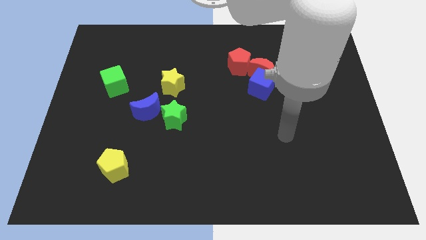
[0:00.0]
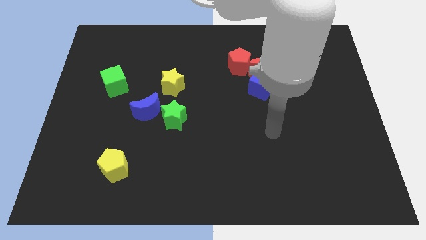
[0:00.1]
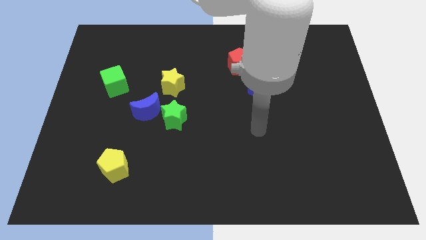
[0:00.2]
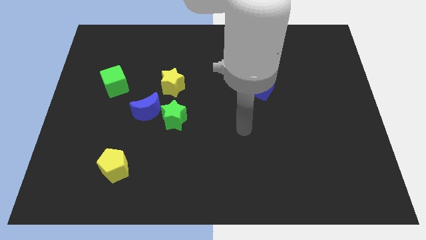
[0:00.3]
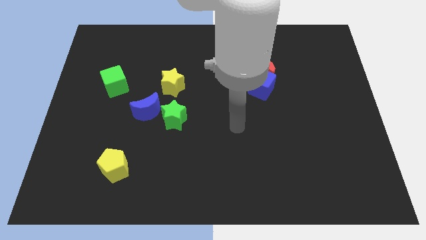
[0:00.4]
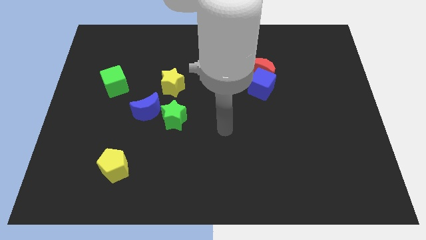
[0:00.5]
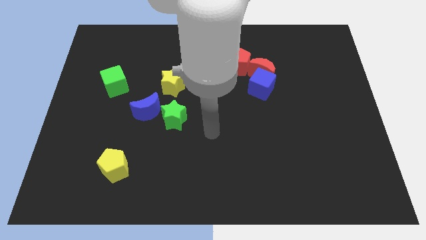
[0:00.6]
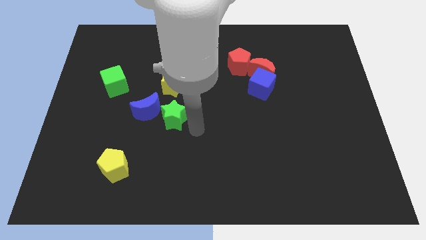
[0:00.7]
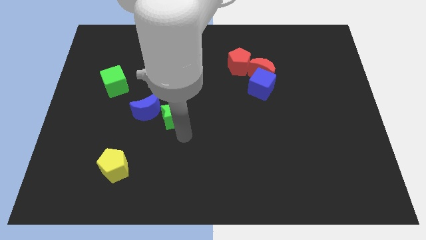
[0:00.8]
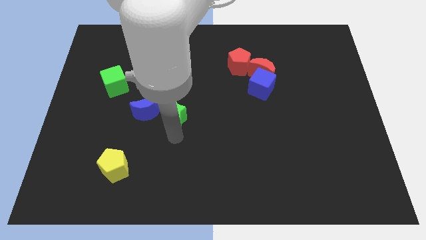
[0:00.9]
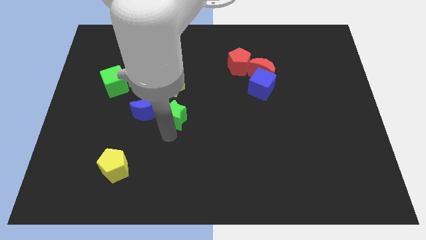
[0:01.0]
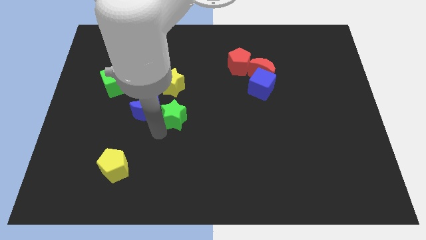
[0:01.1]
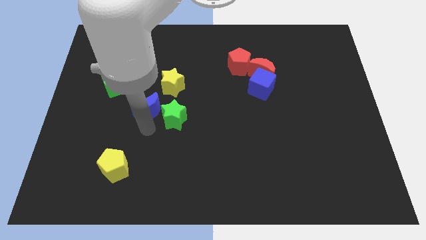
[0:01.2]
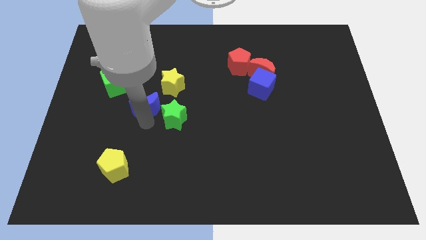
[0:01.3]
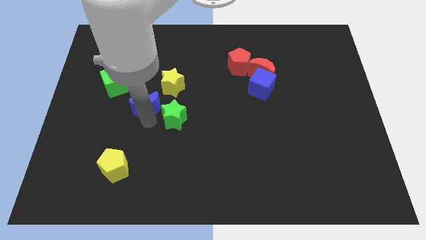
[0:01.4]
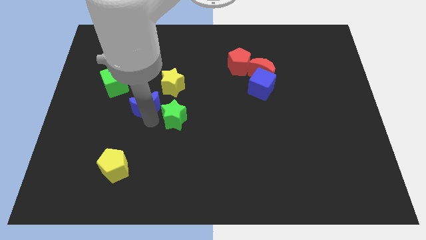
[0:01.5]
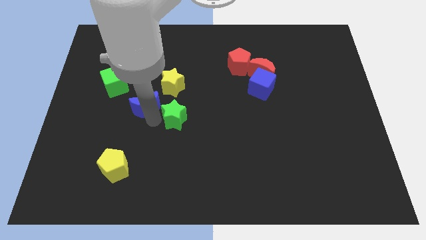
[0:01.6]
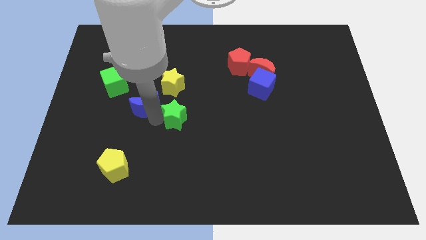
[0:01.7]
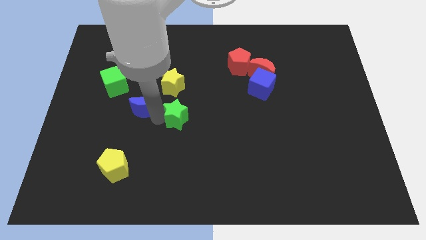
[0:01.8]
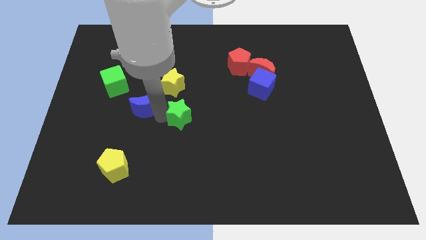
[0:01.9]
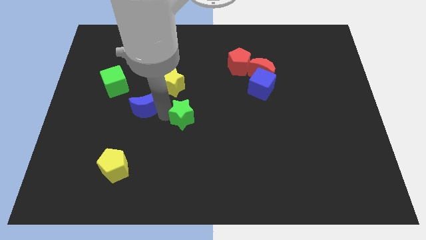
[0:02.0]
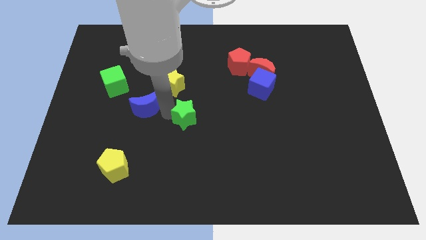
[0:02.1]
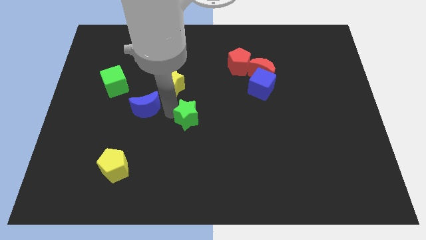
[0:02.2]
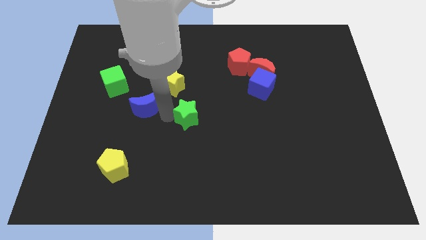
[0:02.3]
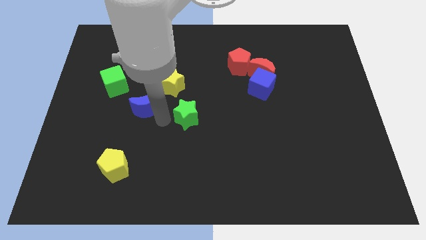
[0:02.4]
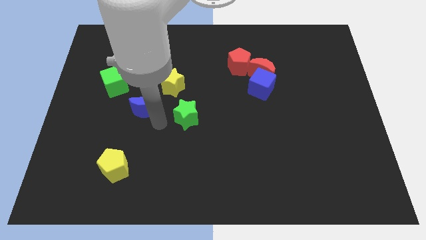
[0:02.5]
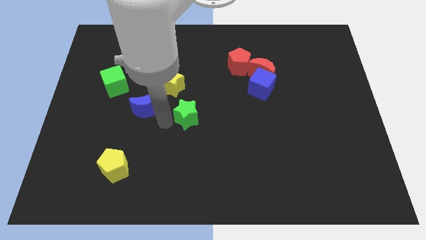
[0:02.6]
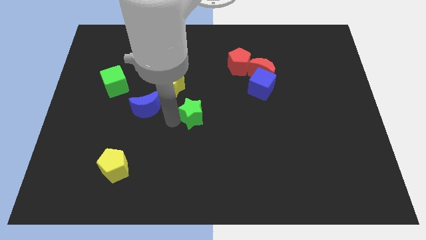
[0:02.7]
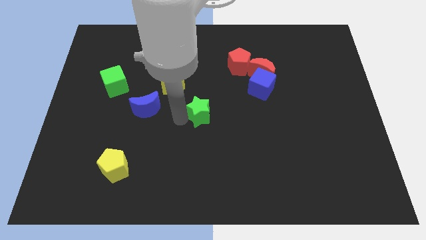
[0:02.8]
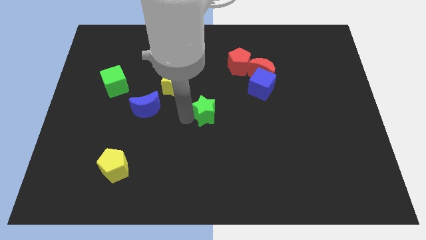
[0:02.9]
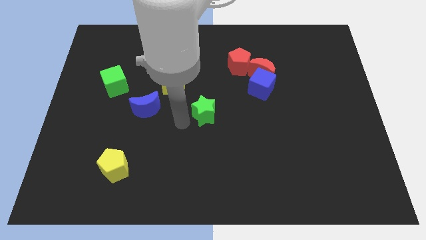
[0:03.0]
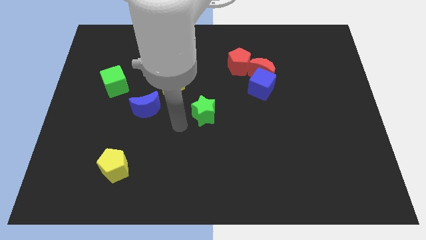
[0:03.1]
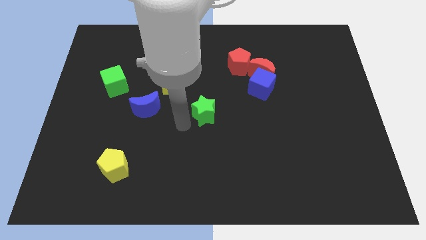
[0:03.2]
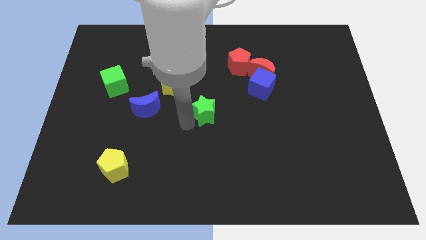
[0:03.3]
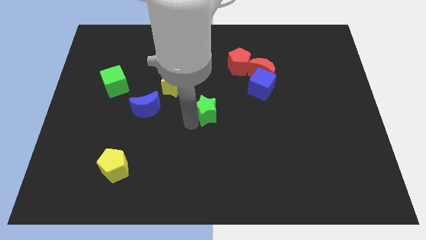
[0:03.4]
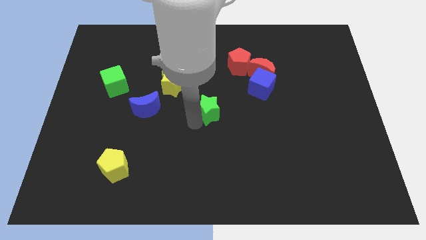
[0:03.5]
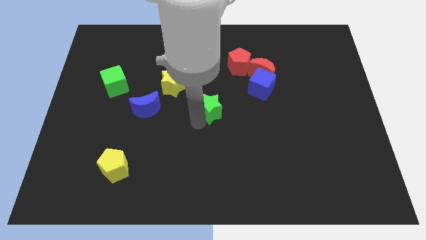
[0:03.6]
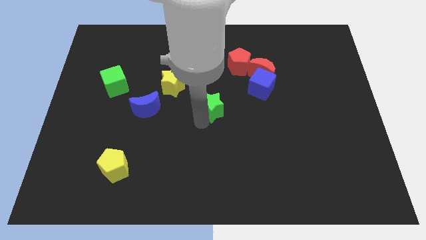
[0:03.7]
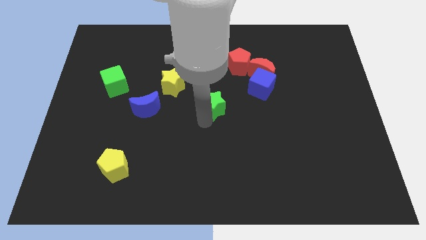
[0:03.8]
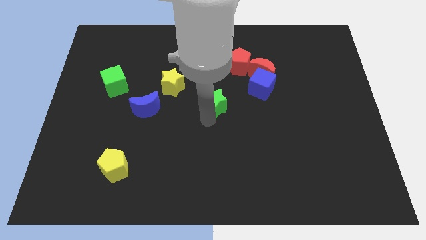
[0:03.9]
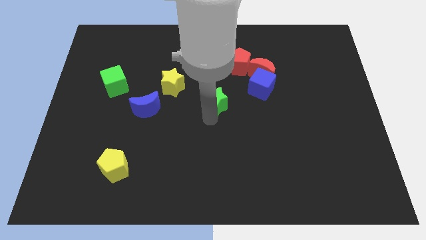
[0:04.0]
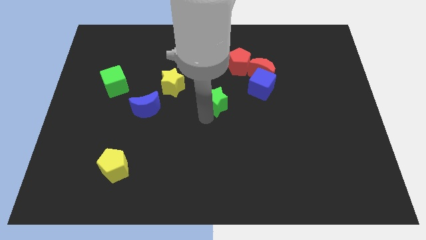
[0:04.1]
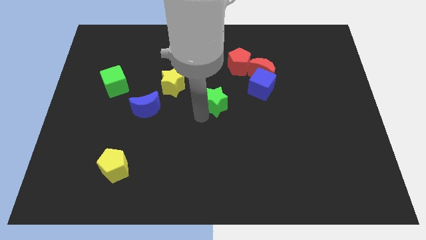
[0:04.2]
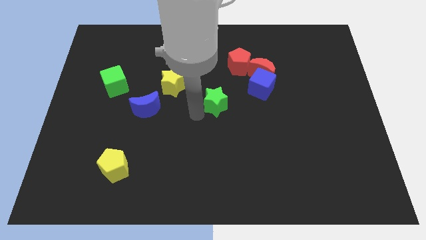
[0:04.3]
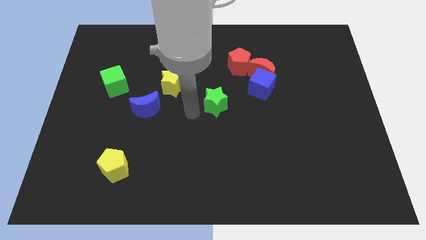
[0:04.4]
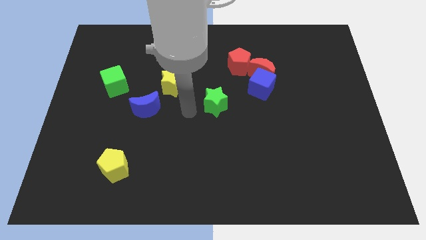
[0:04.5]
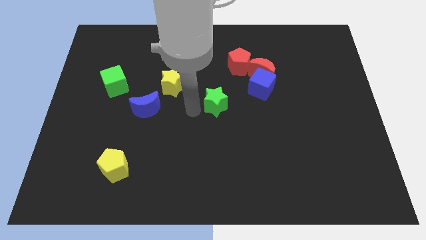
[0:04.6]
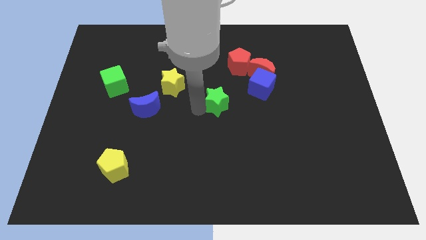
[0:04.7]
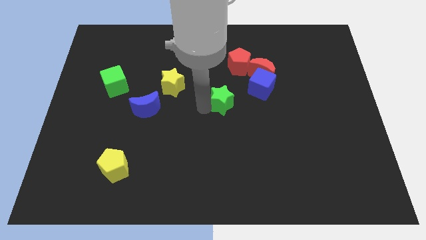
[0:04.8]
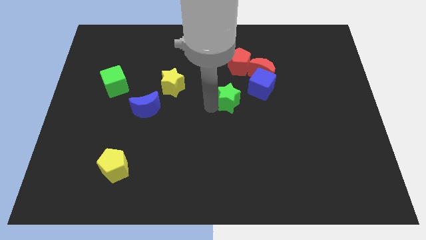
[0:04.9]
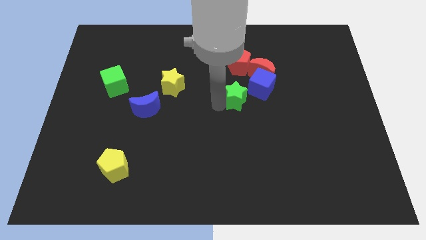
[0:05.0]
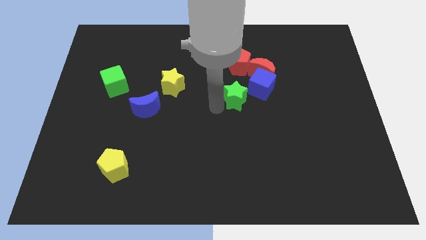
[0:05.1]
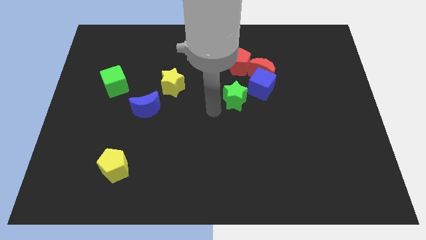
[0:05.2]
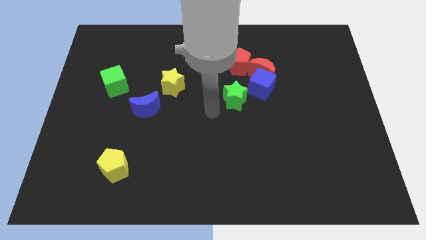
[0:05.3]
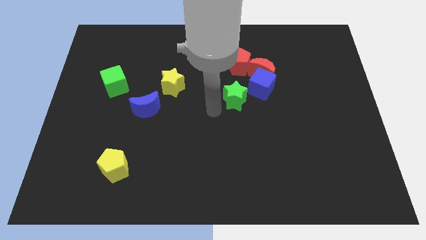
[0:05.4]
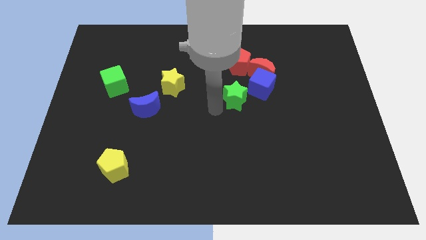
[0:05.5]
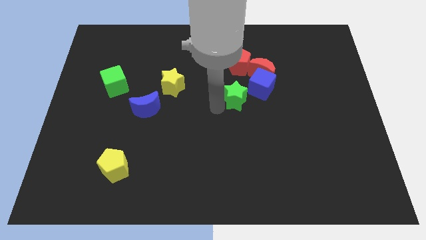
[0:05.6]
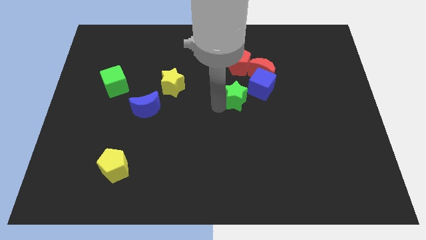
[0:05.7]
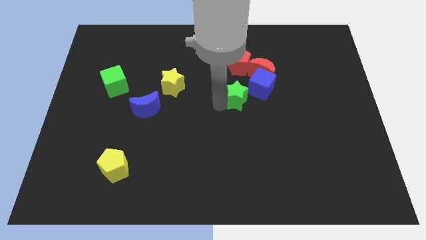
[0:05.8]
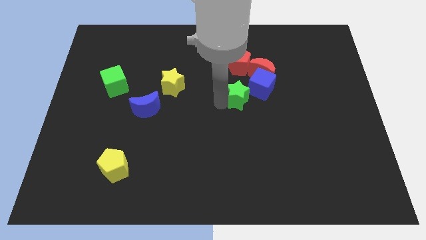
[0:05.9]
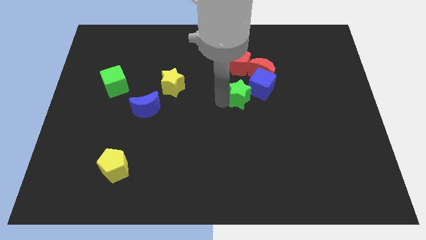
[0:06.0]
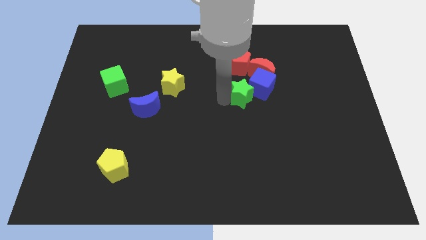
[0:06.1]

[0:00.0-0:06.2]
put the green star towards the blue cube

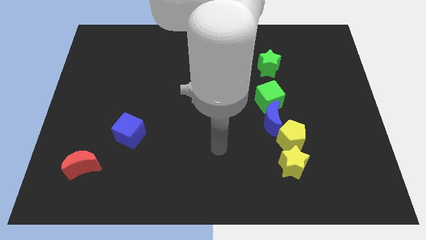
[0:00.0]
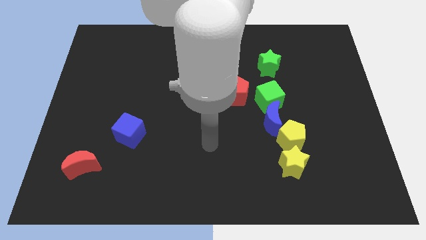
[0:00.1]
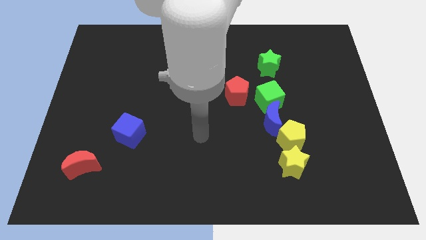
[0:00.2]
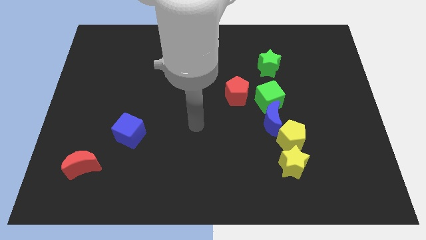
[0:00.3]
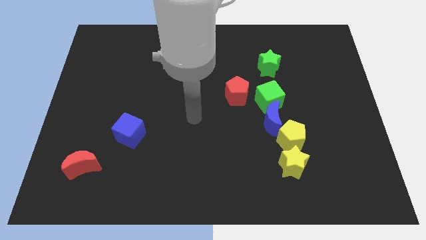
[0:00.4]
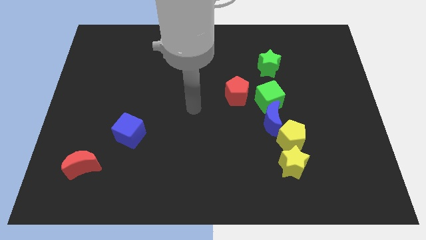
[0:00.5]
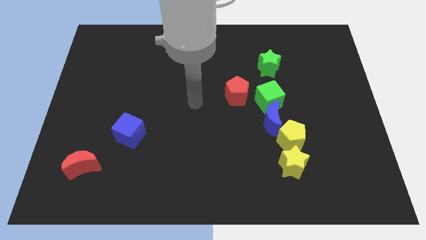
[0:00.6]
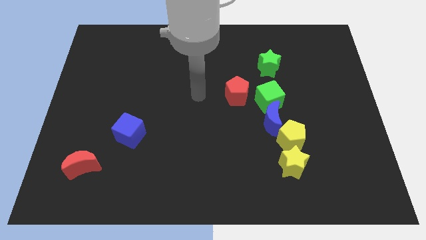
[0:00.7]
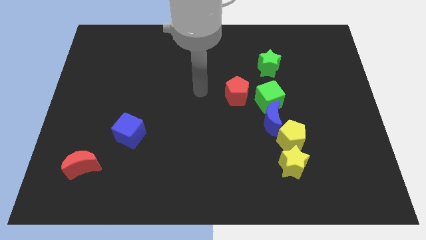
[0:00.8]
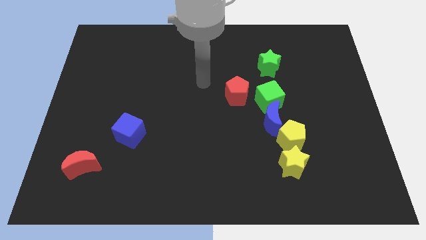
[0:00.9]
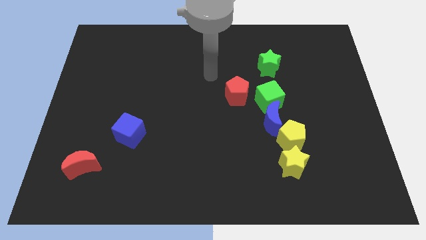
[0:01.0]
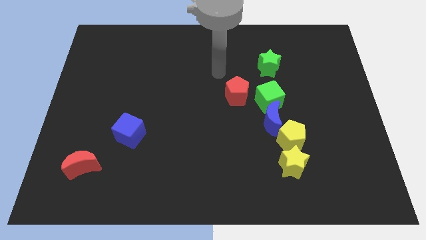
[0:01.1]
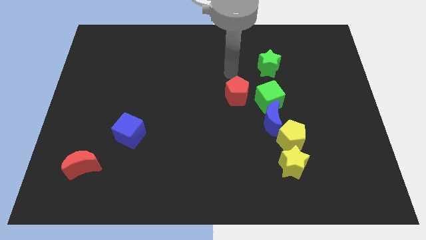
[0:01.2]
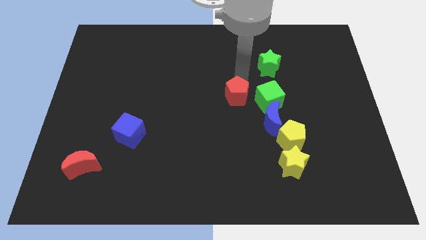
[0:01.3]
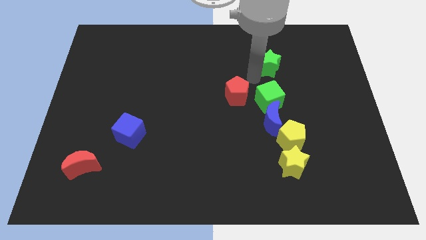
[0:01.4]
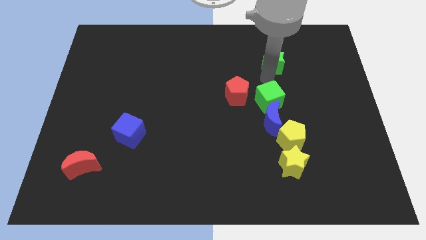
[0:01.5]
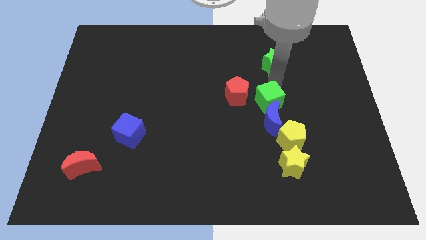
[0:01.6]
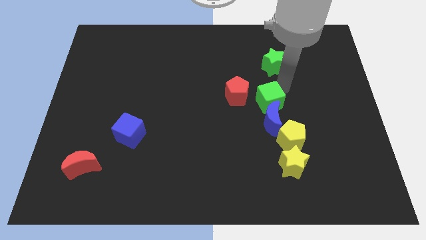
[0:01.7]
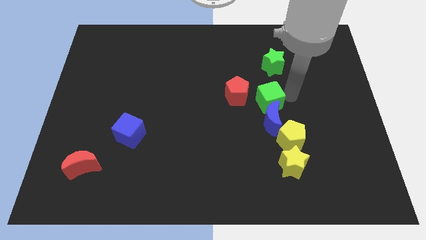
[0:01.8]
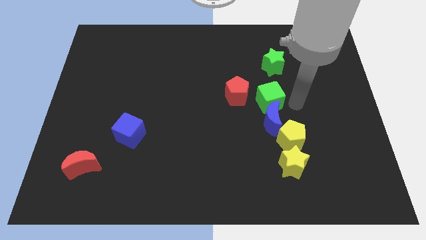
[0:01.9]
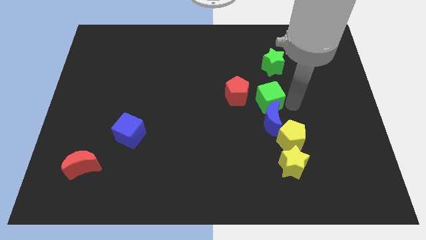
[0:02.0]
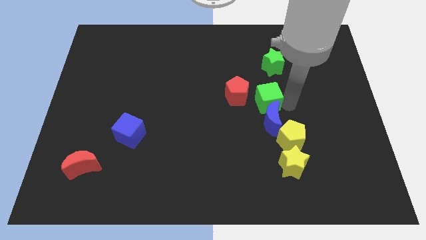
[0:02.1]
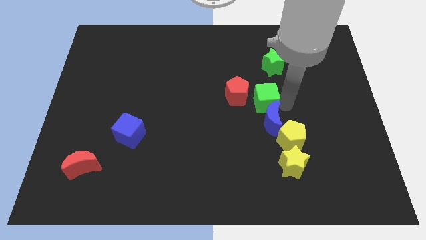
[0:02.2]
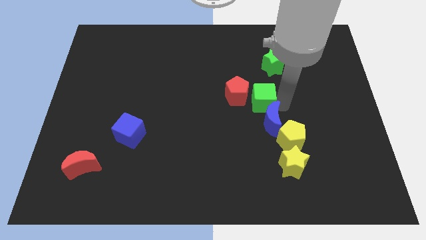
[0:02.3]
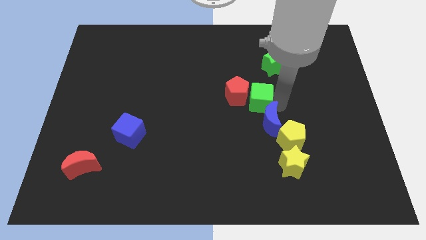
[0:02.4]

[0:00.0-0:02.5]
move the green cube next to the red pentagon
